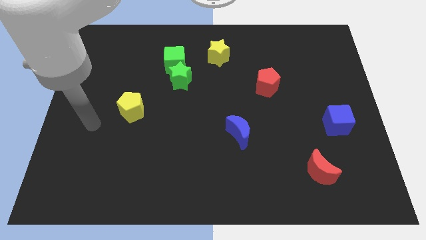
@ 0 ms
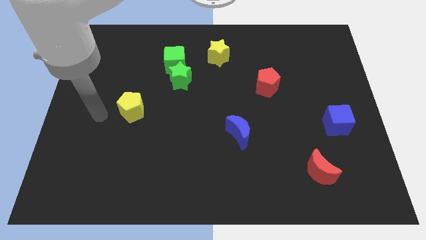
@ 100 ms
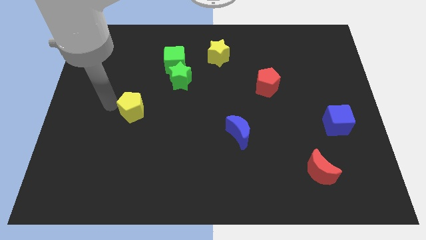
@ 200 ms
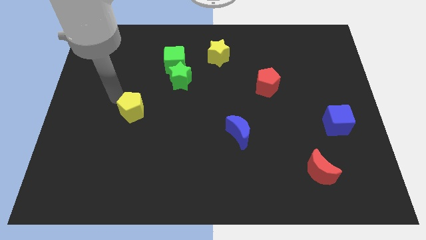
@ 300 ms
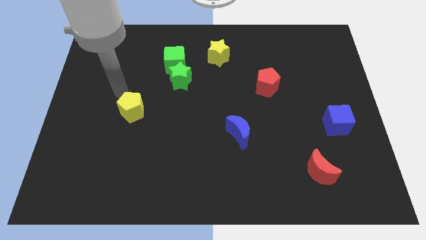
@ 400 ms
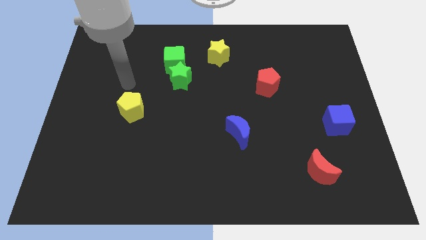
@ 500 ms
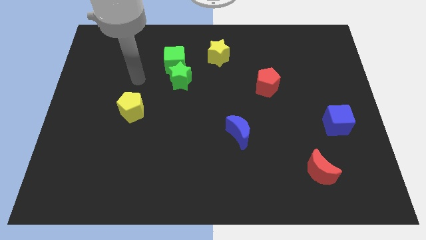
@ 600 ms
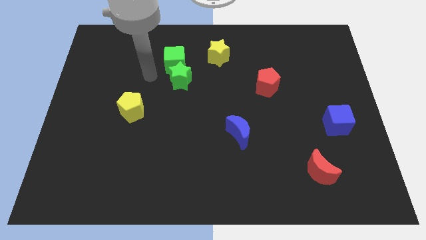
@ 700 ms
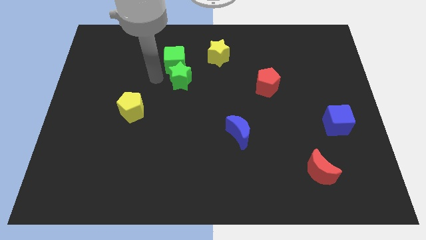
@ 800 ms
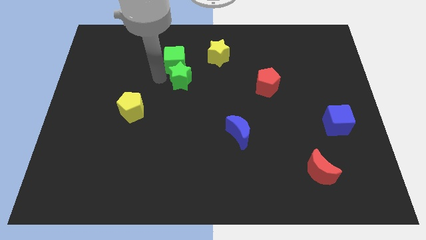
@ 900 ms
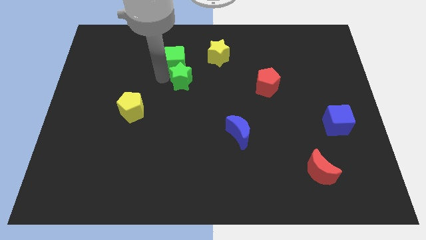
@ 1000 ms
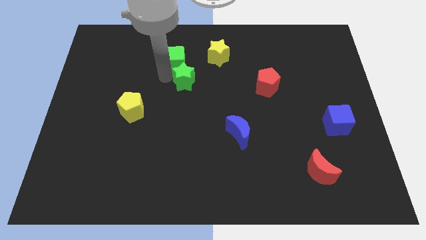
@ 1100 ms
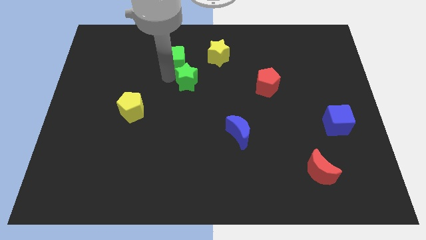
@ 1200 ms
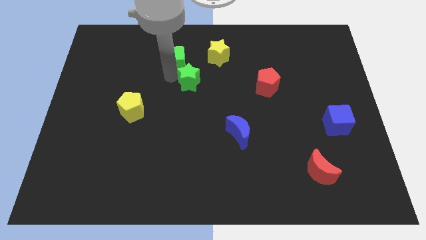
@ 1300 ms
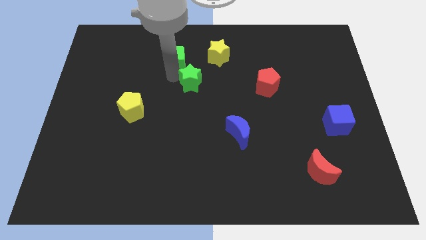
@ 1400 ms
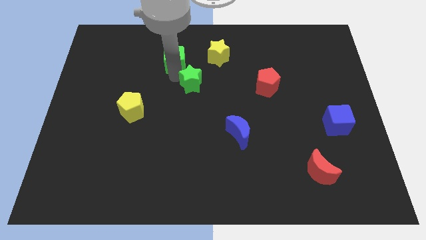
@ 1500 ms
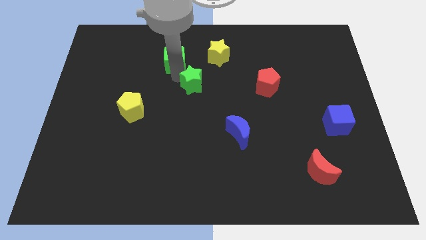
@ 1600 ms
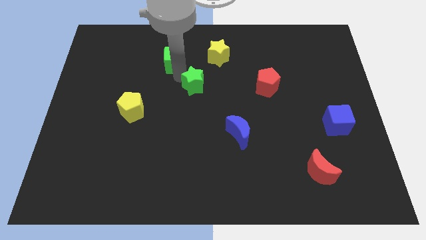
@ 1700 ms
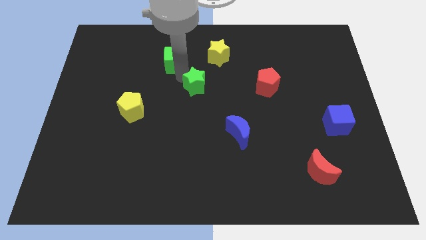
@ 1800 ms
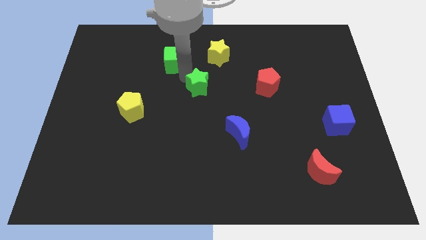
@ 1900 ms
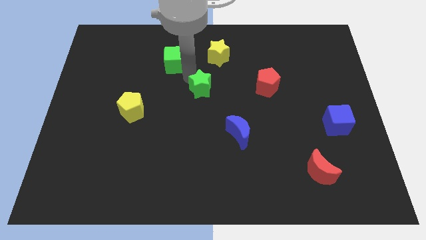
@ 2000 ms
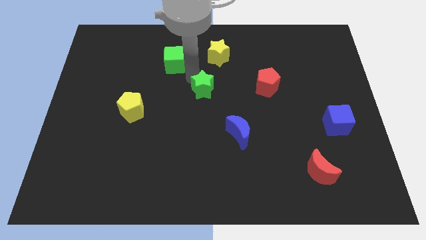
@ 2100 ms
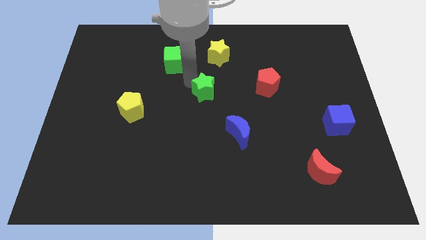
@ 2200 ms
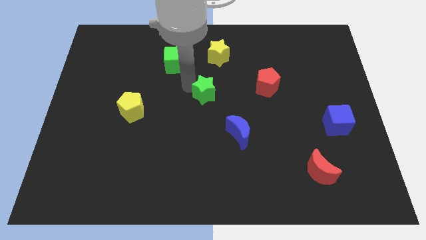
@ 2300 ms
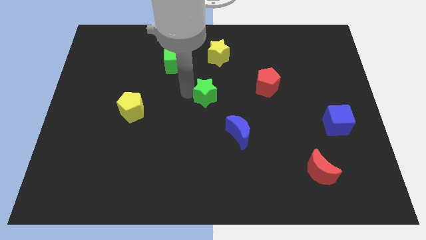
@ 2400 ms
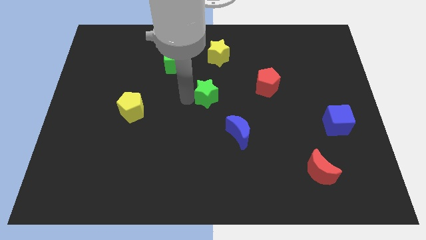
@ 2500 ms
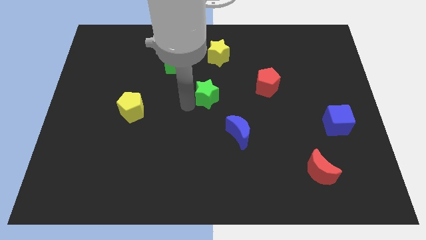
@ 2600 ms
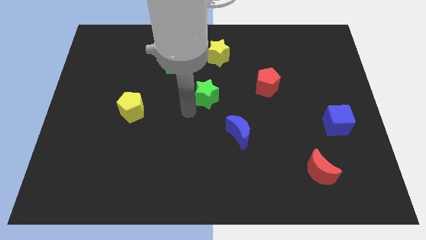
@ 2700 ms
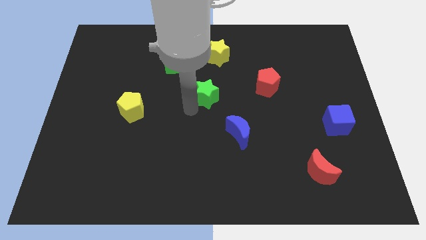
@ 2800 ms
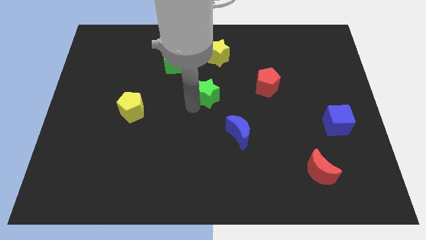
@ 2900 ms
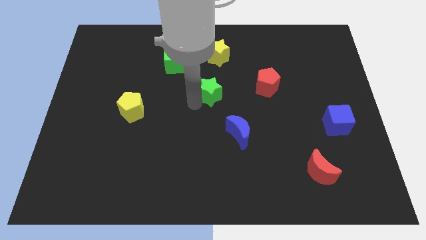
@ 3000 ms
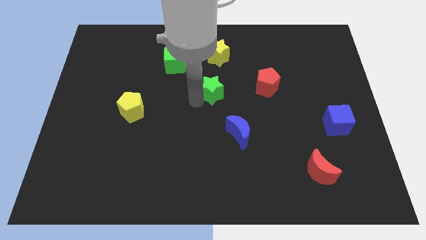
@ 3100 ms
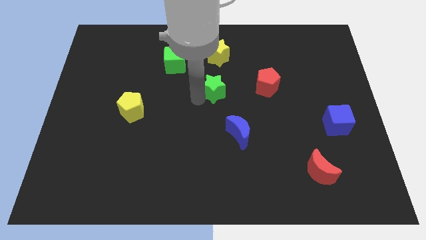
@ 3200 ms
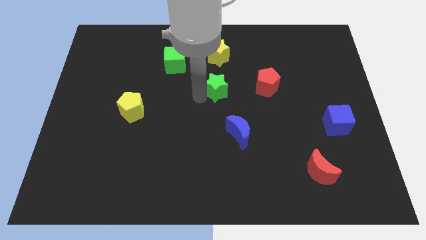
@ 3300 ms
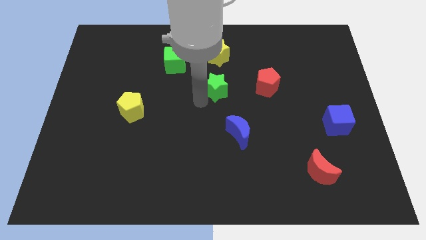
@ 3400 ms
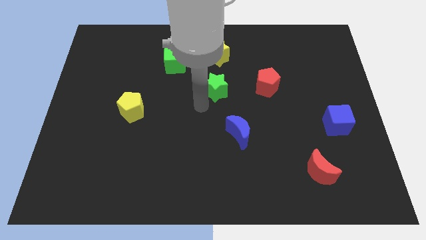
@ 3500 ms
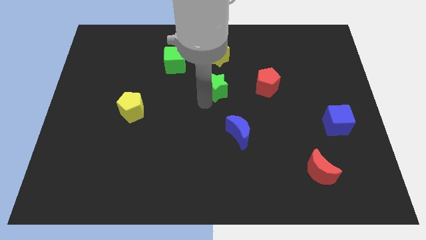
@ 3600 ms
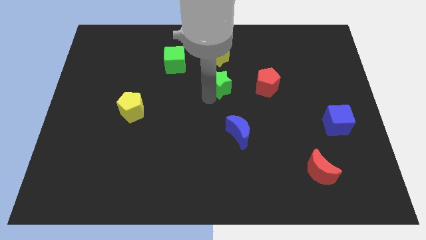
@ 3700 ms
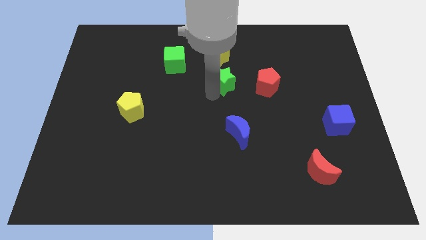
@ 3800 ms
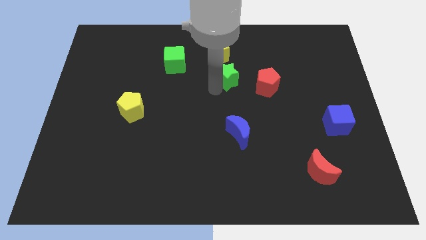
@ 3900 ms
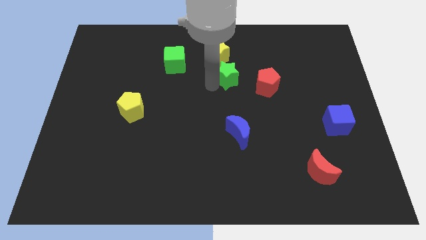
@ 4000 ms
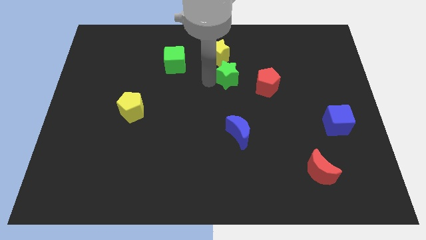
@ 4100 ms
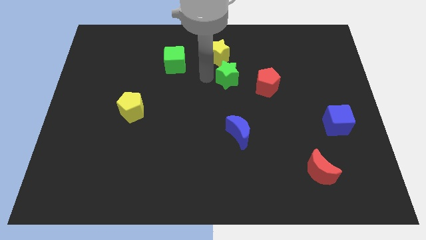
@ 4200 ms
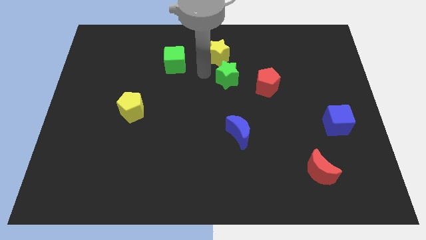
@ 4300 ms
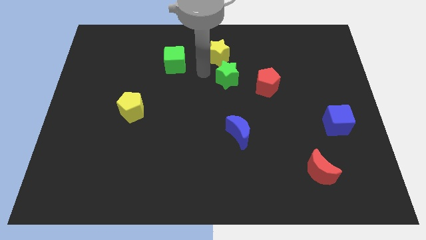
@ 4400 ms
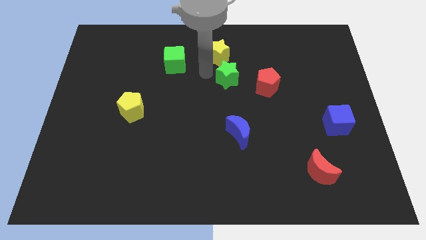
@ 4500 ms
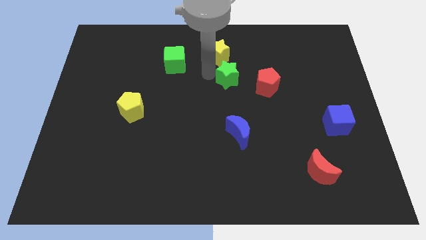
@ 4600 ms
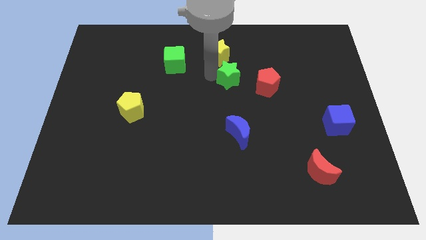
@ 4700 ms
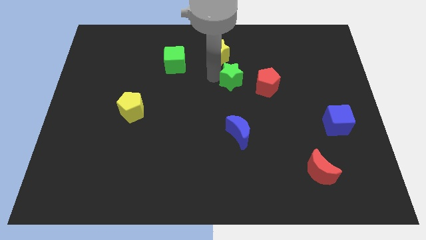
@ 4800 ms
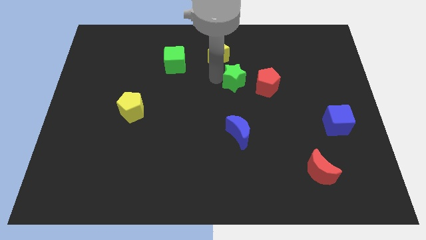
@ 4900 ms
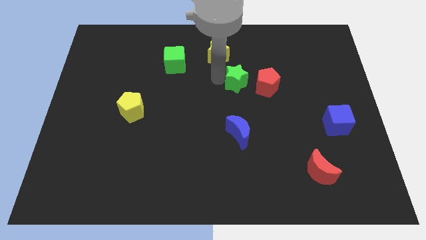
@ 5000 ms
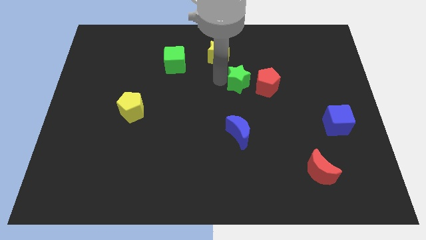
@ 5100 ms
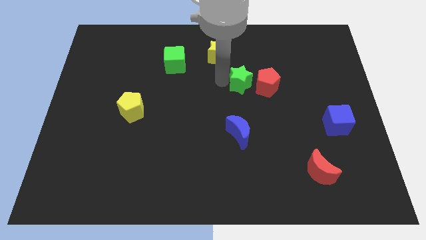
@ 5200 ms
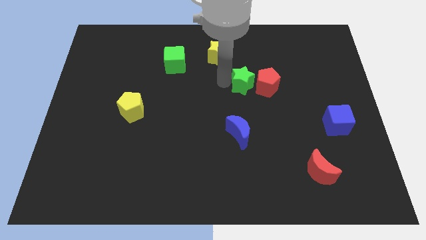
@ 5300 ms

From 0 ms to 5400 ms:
put the green star next to the red pentagon

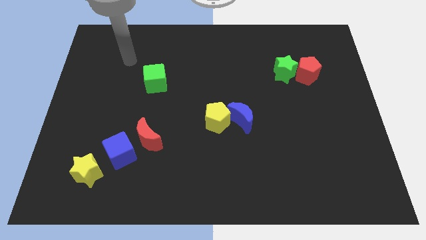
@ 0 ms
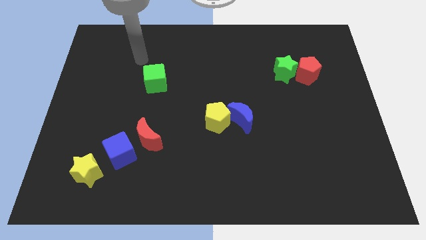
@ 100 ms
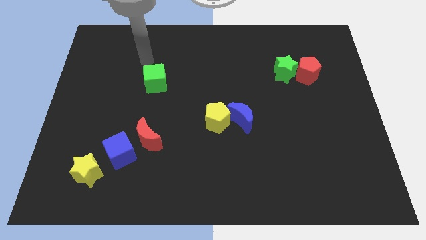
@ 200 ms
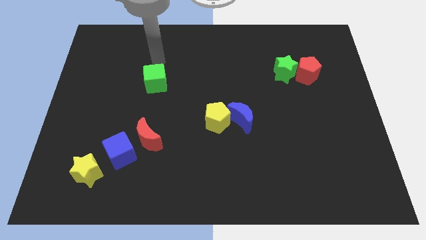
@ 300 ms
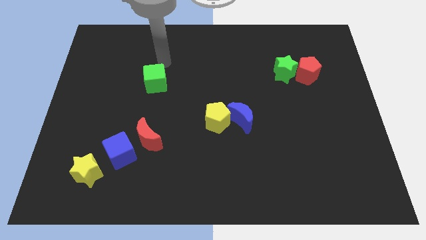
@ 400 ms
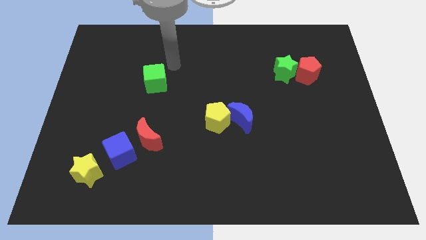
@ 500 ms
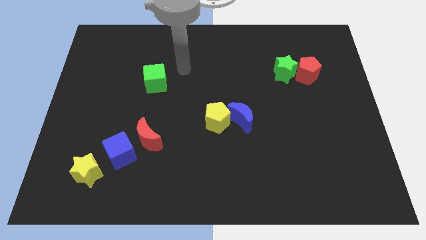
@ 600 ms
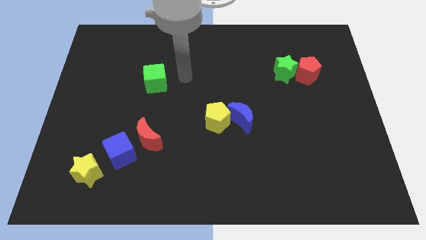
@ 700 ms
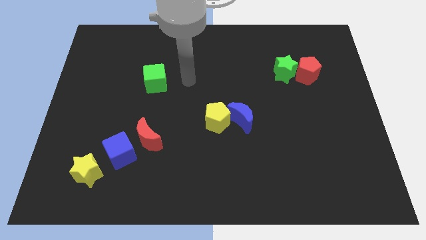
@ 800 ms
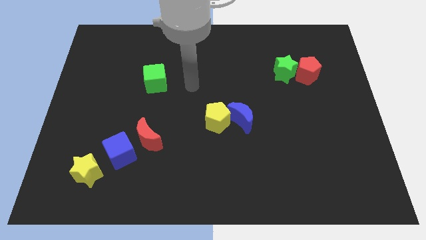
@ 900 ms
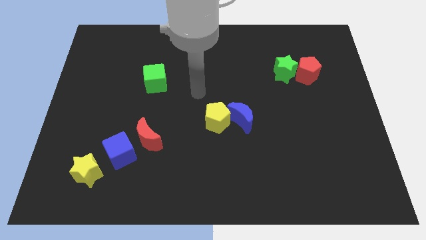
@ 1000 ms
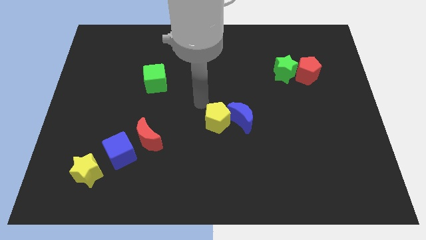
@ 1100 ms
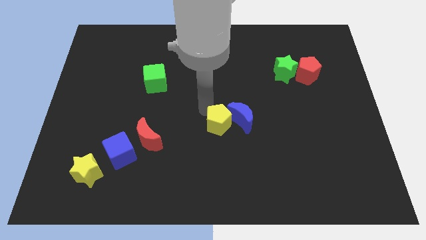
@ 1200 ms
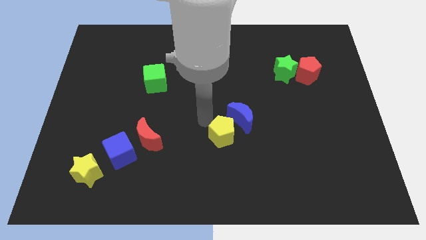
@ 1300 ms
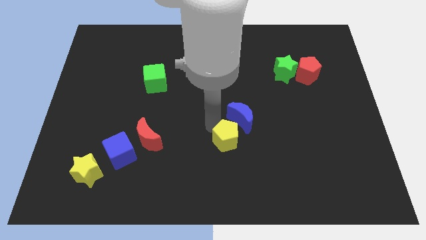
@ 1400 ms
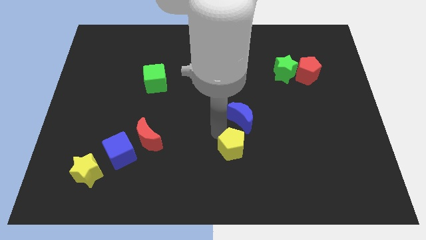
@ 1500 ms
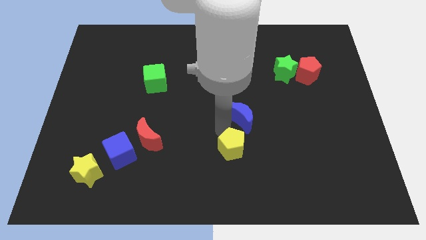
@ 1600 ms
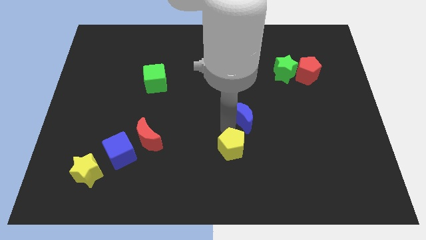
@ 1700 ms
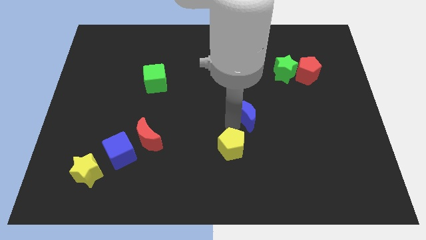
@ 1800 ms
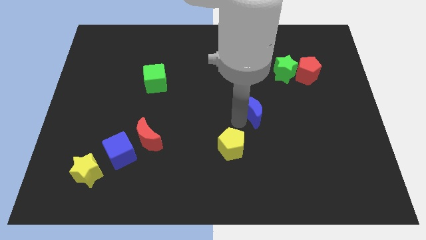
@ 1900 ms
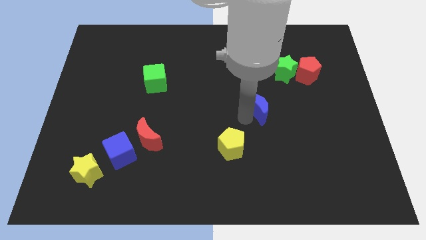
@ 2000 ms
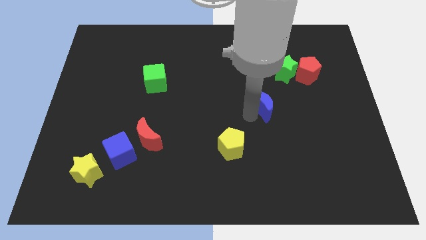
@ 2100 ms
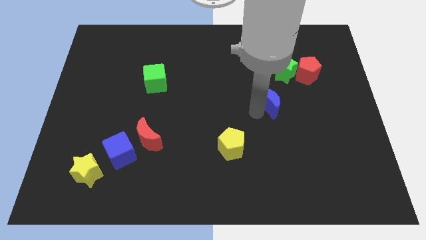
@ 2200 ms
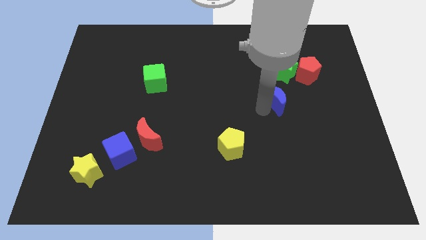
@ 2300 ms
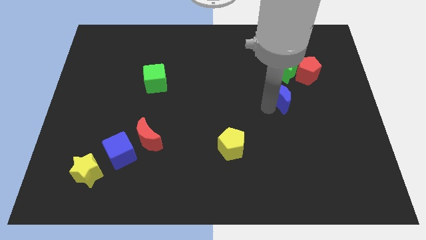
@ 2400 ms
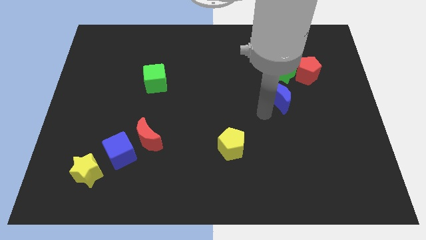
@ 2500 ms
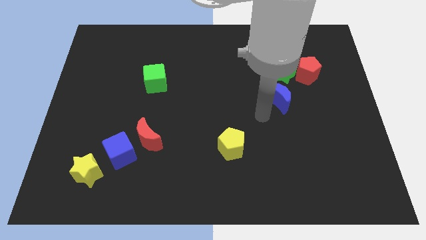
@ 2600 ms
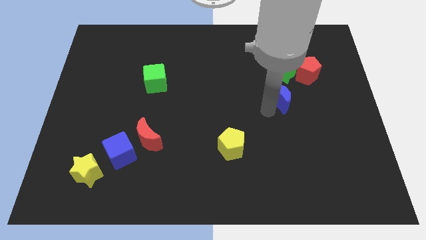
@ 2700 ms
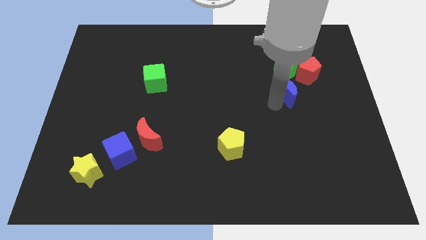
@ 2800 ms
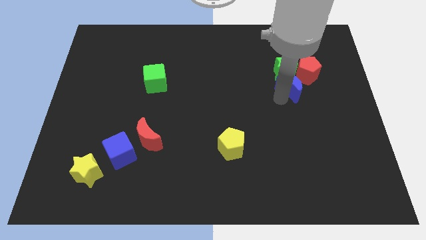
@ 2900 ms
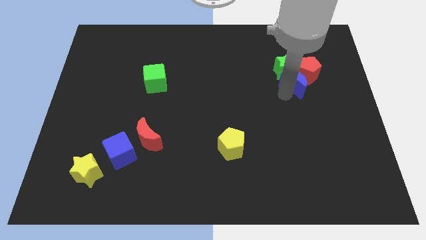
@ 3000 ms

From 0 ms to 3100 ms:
push the blue moon close to the red pentagon
